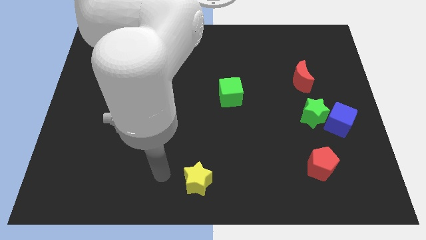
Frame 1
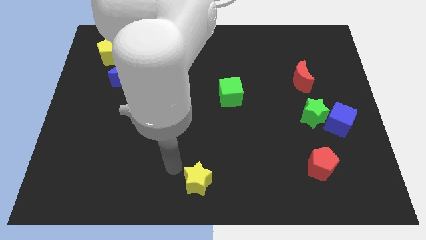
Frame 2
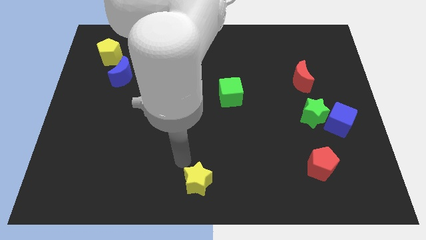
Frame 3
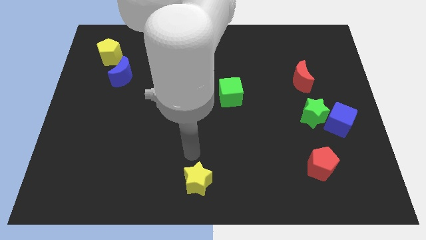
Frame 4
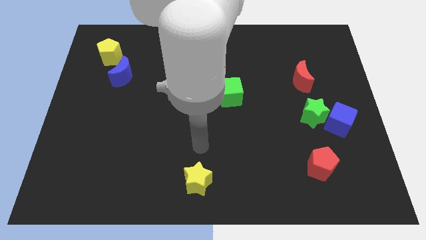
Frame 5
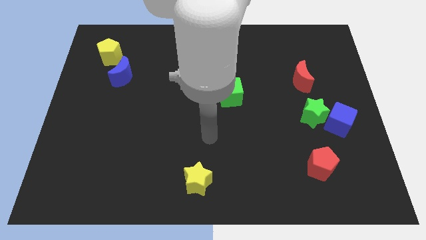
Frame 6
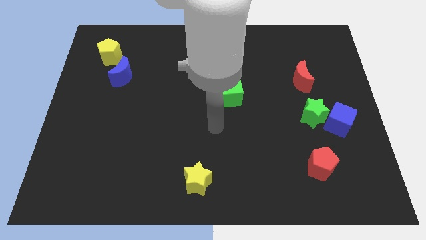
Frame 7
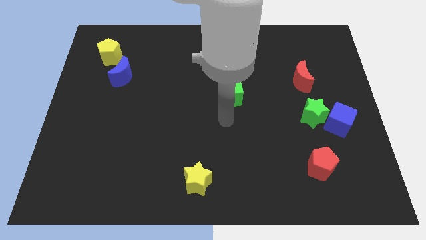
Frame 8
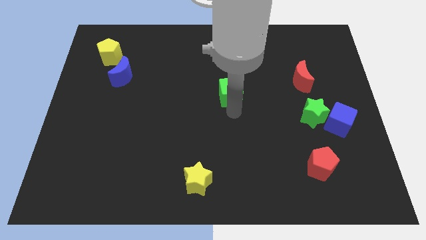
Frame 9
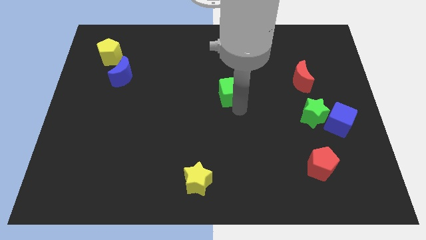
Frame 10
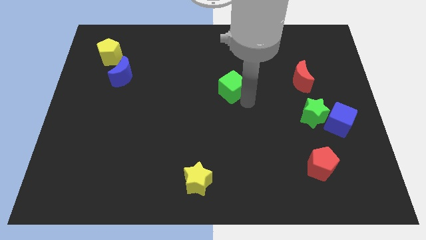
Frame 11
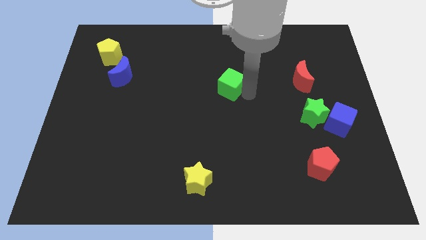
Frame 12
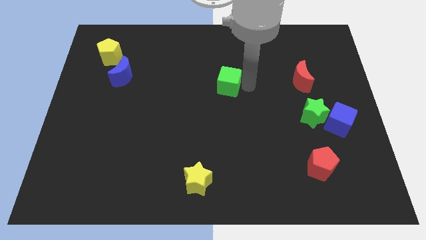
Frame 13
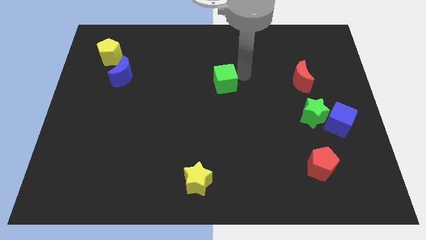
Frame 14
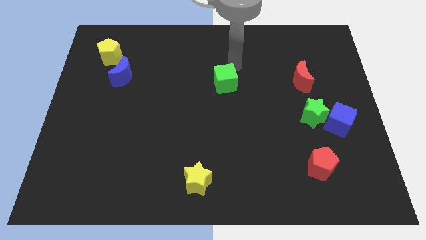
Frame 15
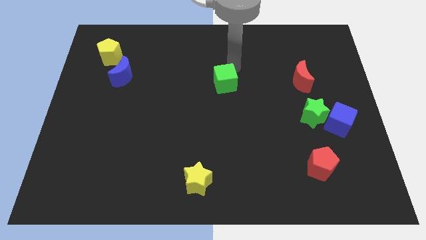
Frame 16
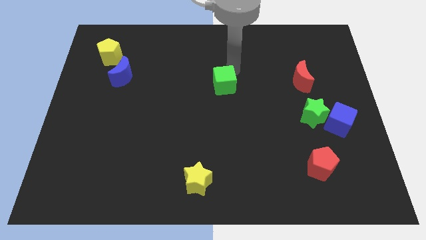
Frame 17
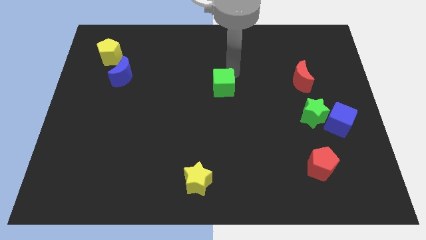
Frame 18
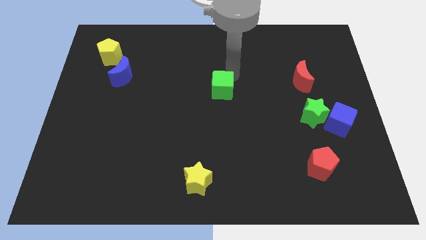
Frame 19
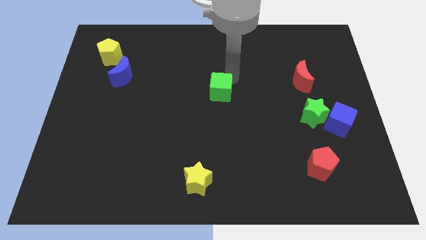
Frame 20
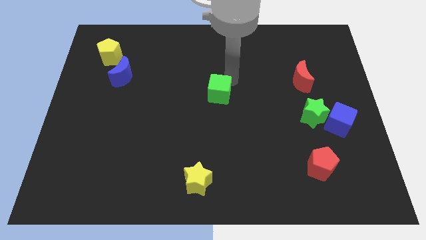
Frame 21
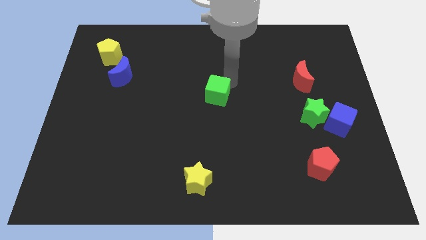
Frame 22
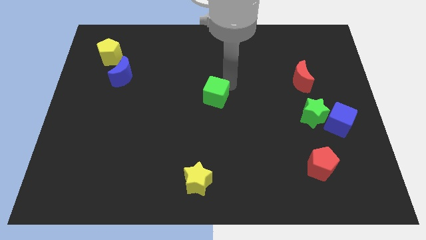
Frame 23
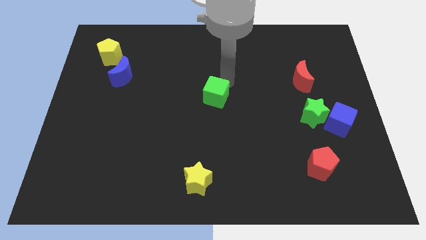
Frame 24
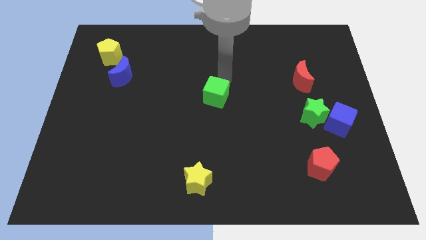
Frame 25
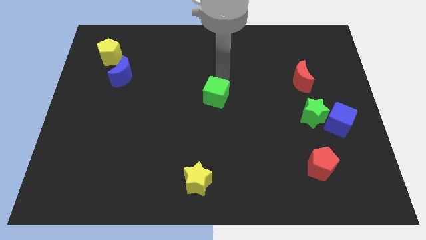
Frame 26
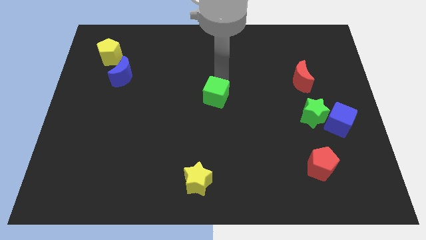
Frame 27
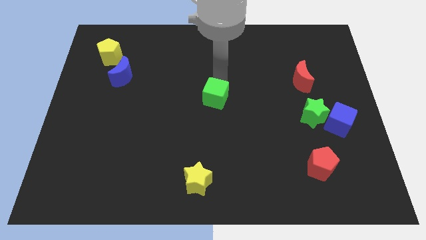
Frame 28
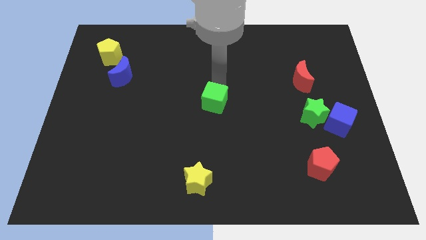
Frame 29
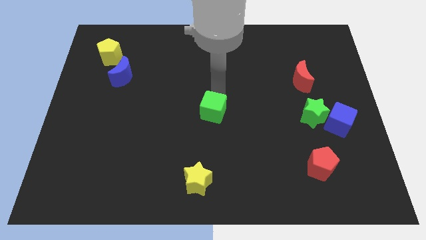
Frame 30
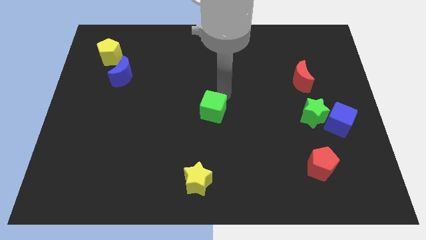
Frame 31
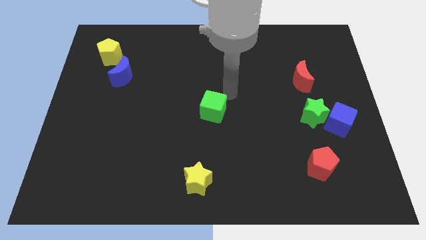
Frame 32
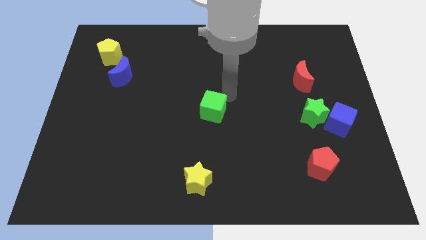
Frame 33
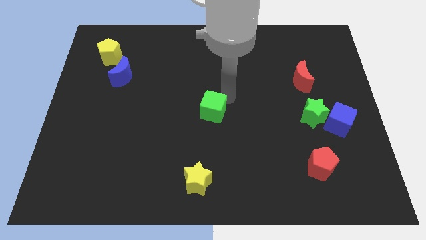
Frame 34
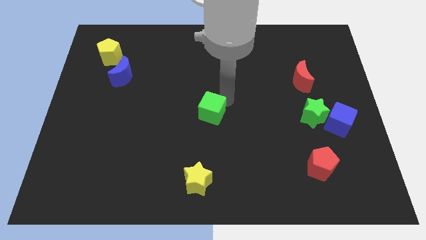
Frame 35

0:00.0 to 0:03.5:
slide the green cube downwards and then left a little

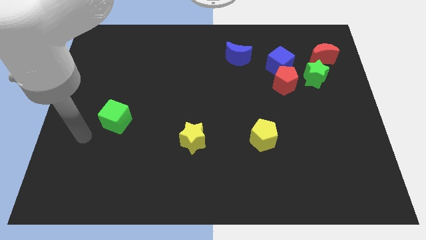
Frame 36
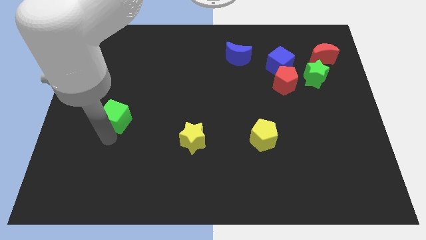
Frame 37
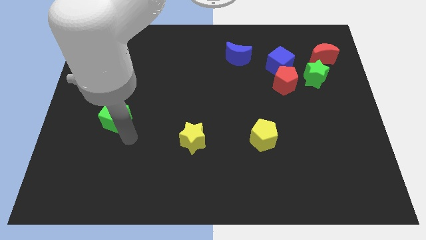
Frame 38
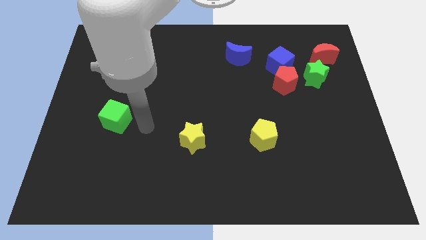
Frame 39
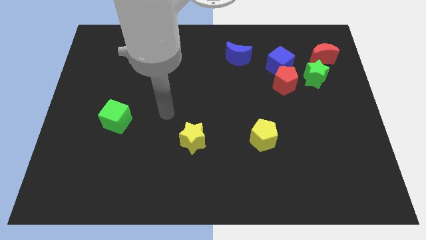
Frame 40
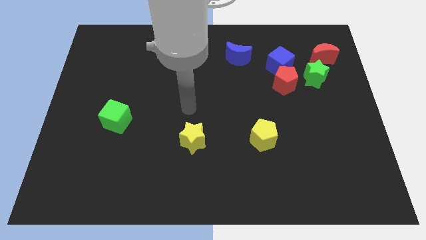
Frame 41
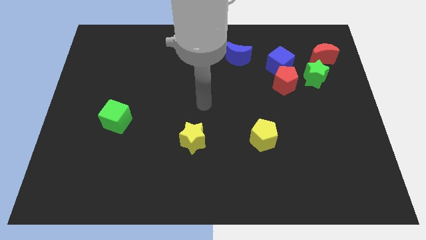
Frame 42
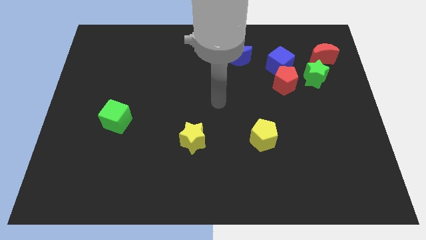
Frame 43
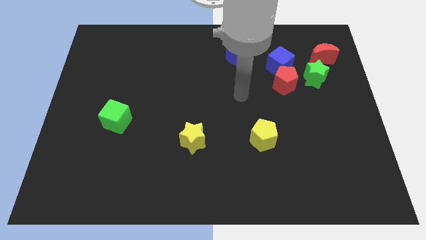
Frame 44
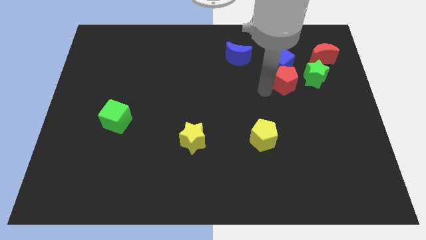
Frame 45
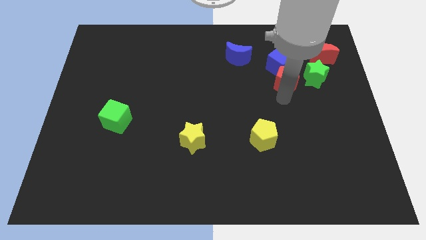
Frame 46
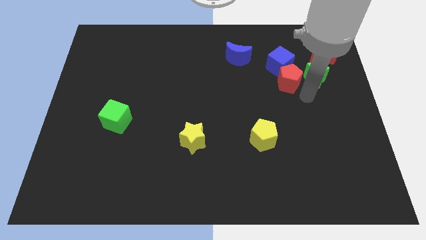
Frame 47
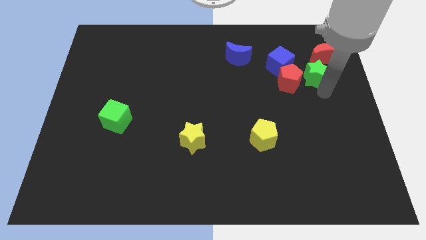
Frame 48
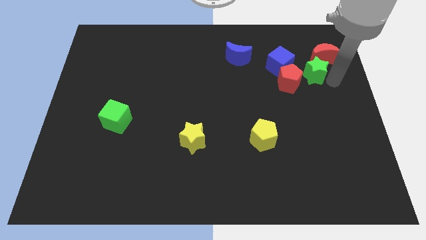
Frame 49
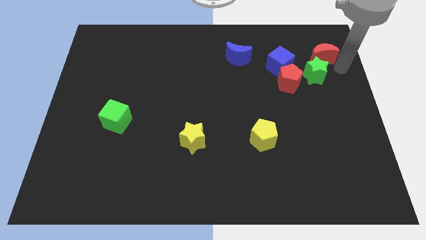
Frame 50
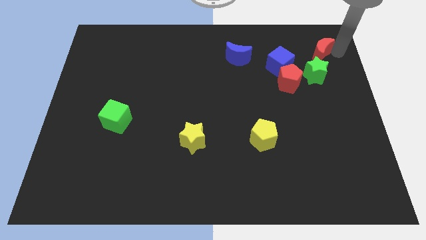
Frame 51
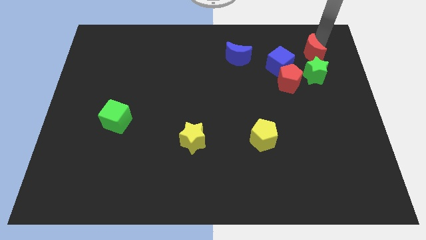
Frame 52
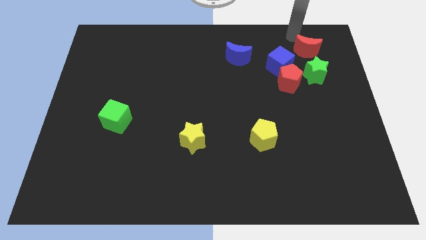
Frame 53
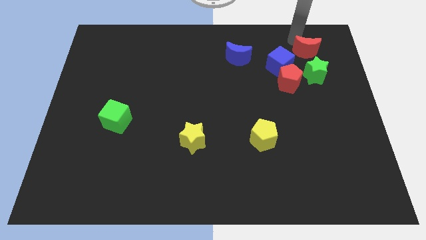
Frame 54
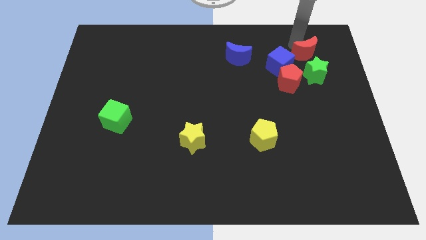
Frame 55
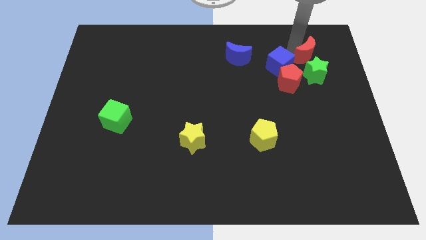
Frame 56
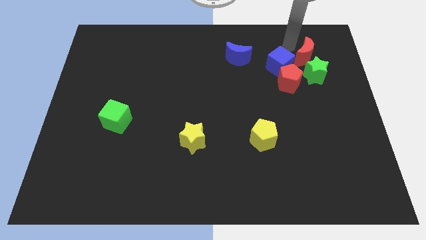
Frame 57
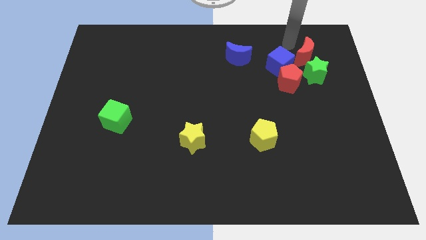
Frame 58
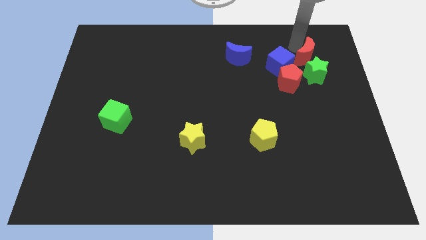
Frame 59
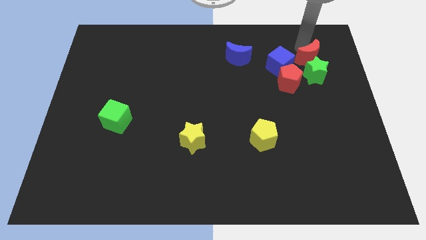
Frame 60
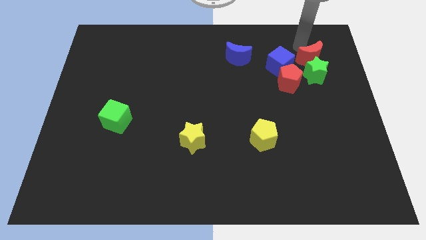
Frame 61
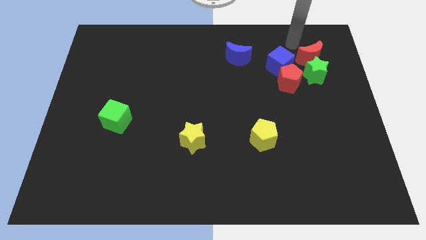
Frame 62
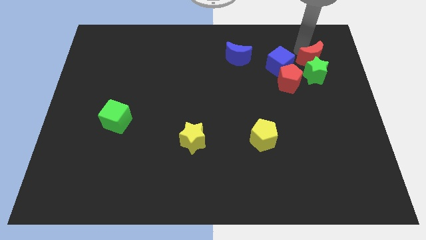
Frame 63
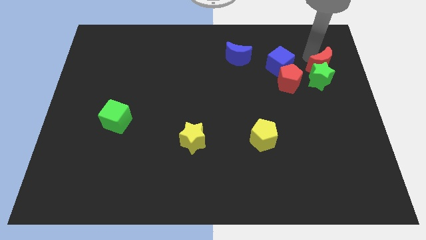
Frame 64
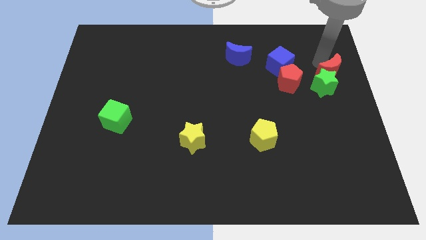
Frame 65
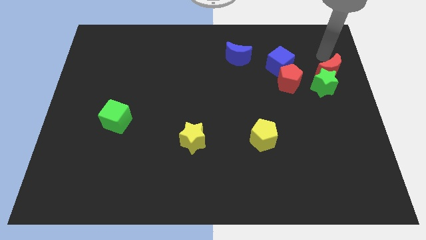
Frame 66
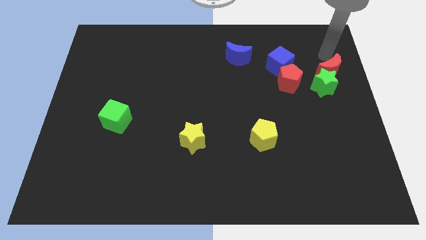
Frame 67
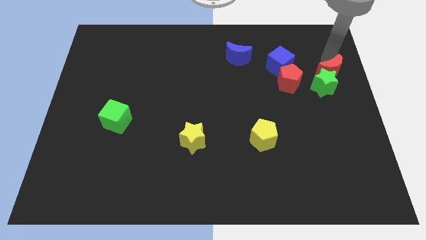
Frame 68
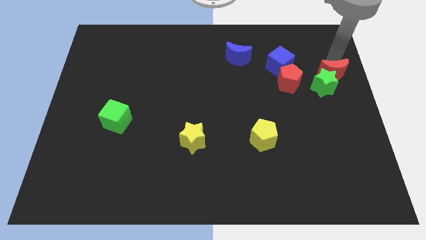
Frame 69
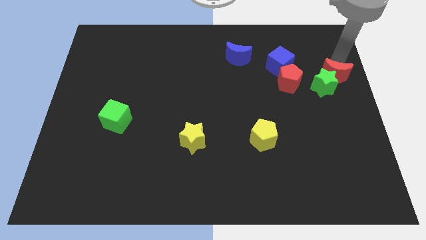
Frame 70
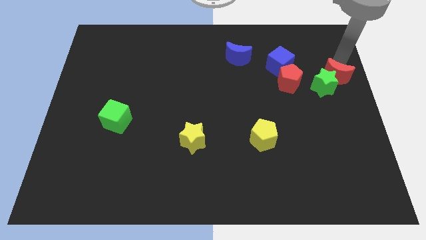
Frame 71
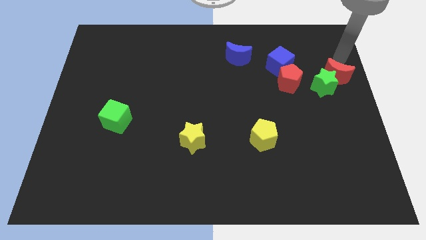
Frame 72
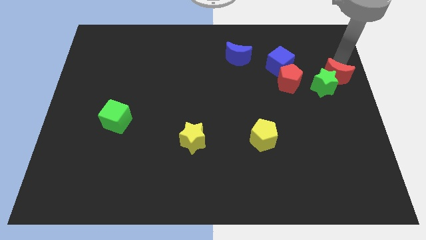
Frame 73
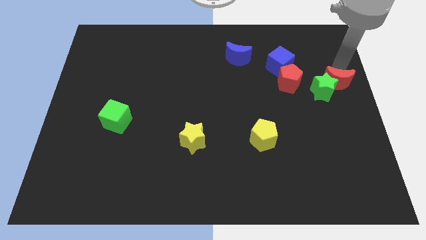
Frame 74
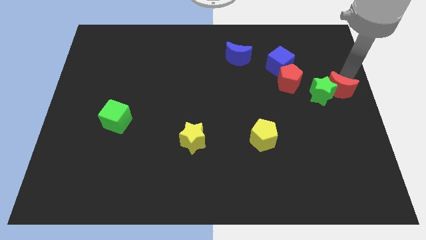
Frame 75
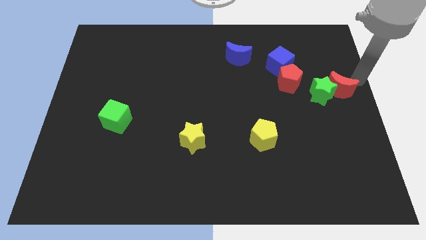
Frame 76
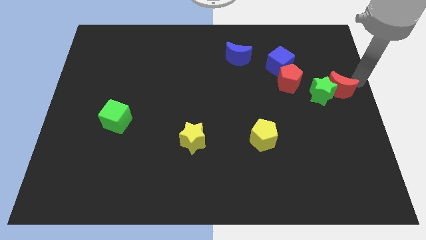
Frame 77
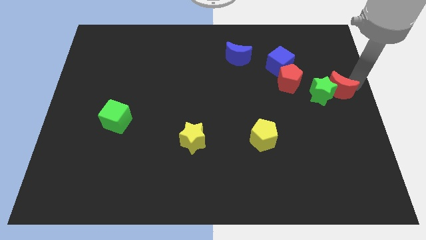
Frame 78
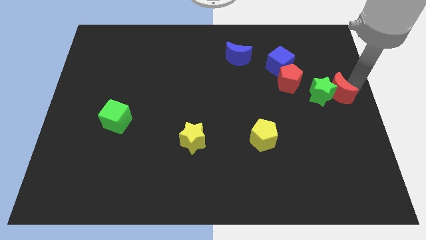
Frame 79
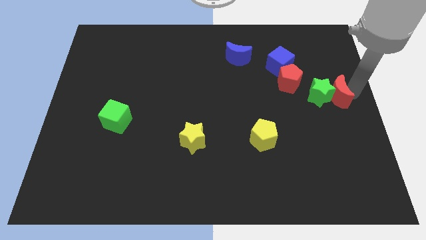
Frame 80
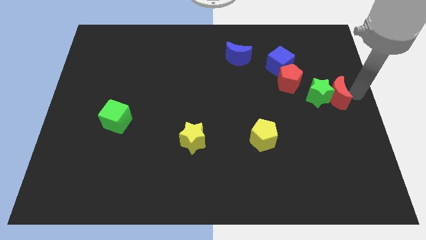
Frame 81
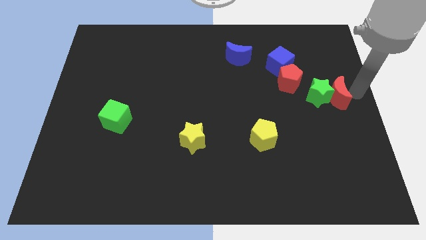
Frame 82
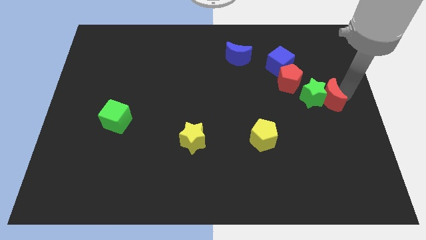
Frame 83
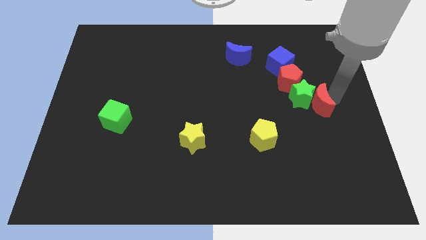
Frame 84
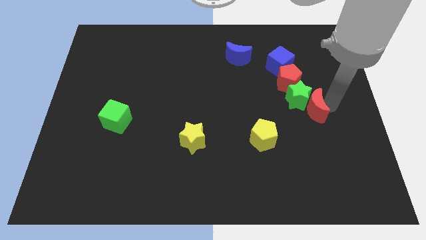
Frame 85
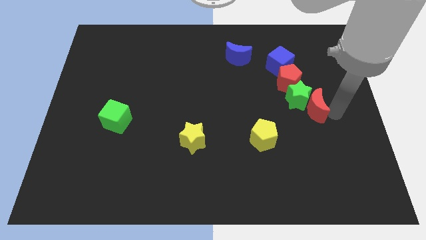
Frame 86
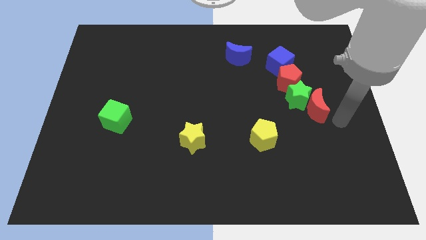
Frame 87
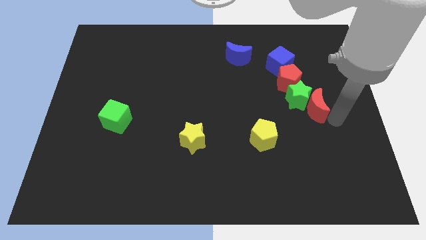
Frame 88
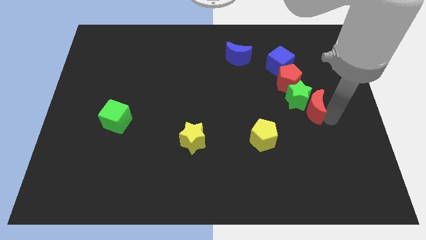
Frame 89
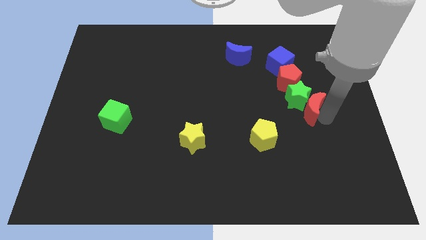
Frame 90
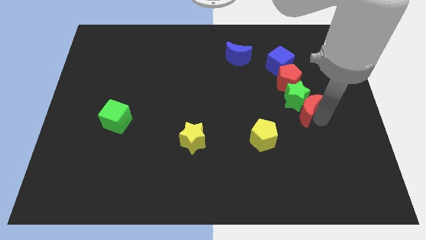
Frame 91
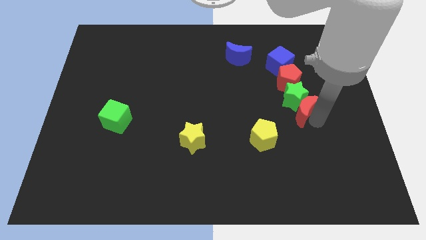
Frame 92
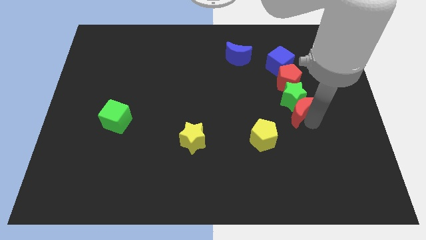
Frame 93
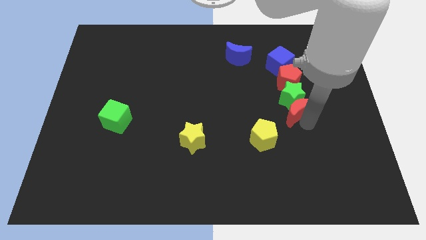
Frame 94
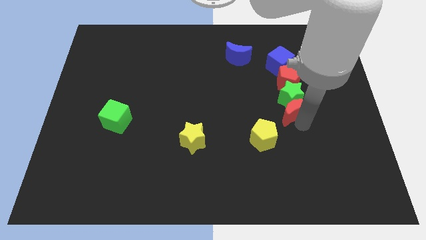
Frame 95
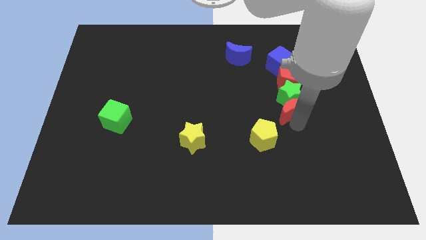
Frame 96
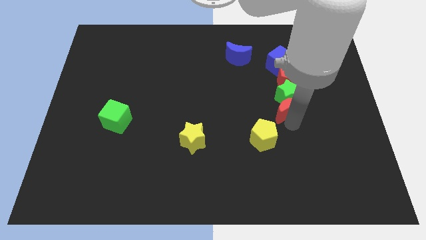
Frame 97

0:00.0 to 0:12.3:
slide the red moon downwards and to the left
